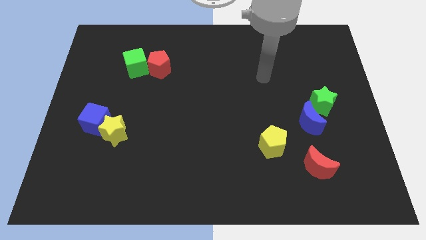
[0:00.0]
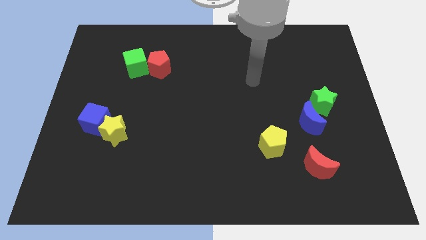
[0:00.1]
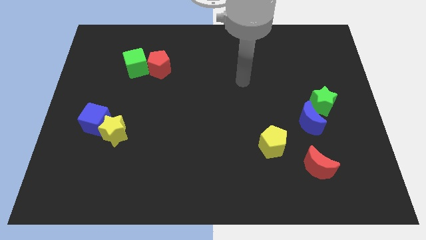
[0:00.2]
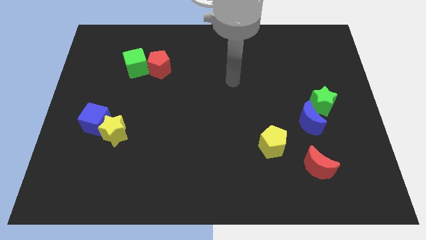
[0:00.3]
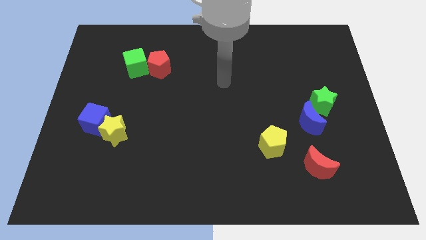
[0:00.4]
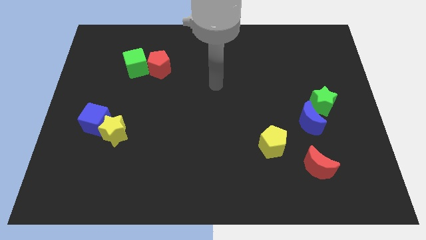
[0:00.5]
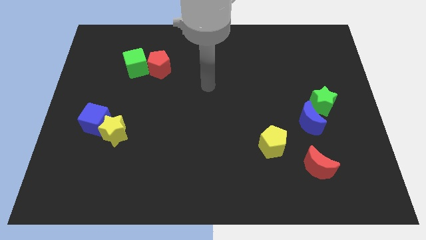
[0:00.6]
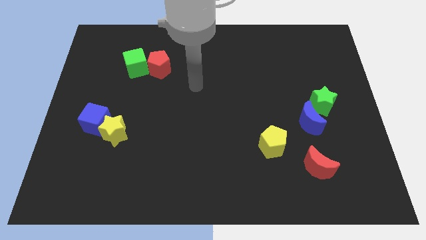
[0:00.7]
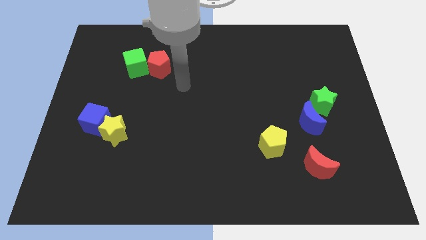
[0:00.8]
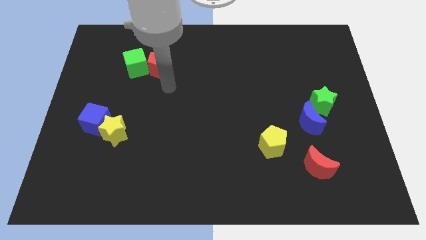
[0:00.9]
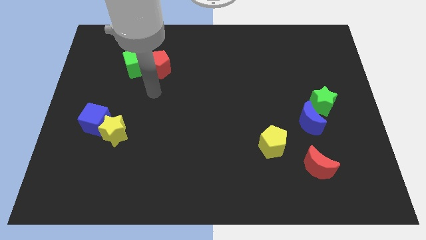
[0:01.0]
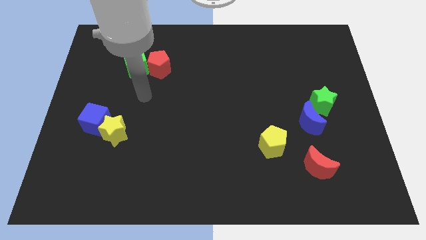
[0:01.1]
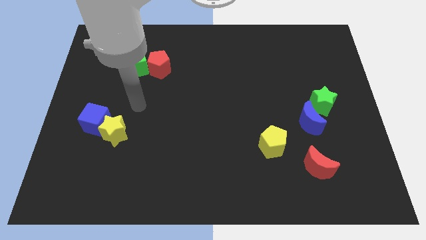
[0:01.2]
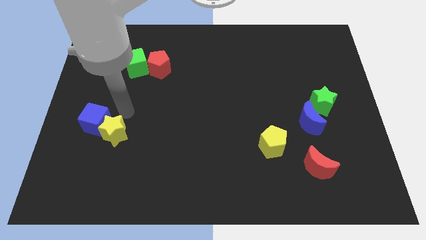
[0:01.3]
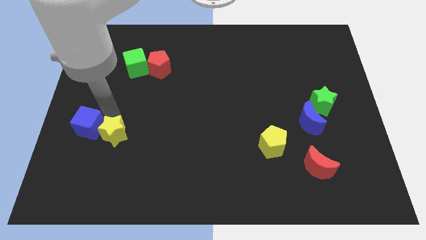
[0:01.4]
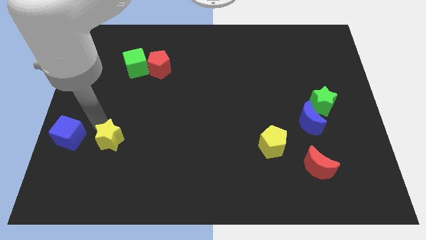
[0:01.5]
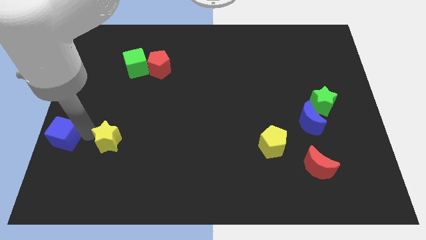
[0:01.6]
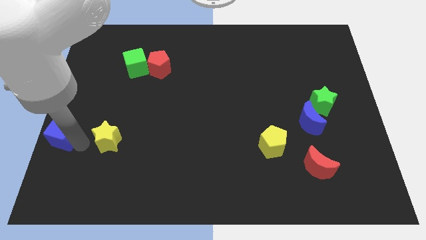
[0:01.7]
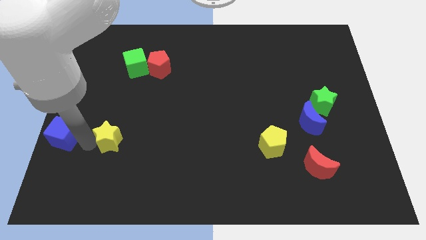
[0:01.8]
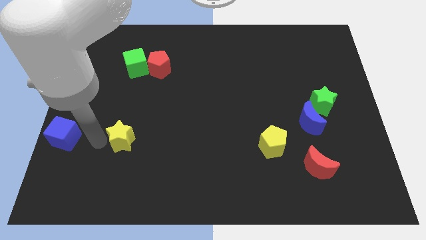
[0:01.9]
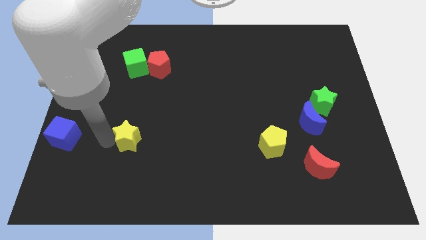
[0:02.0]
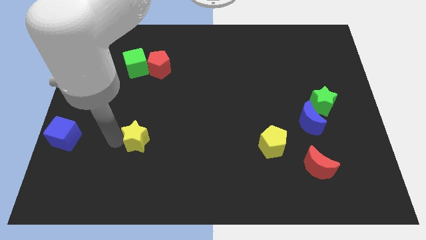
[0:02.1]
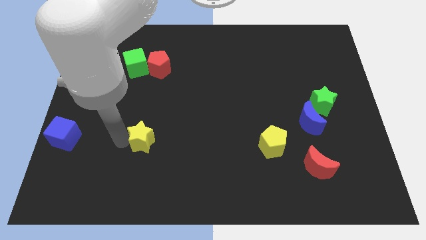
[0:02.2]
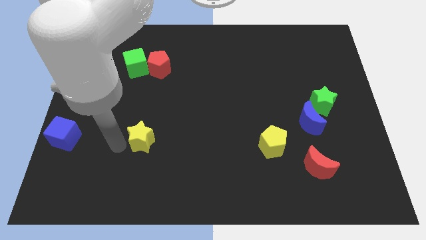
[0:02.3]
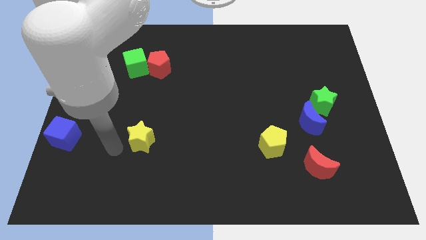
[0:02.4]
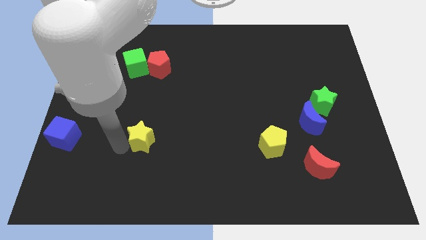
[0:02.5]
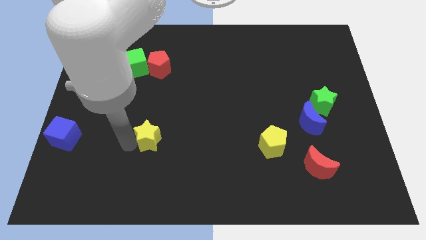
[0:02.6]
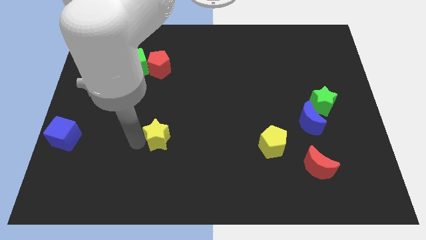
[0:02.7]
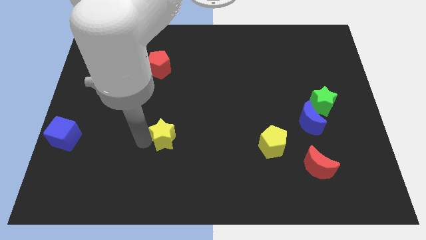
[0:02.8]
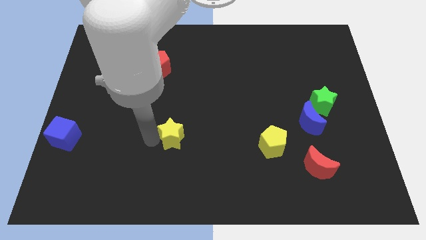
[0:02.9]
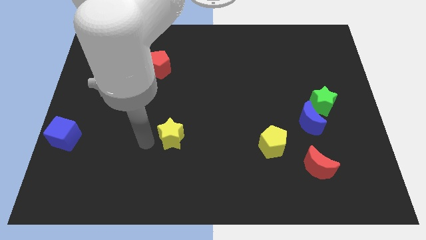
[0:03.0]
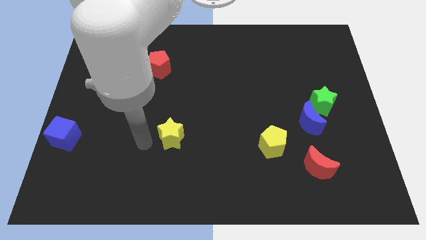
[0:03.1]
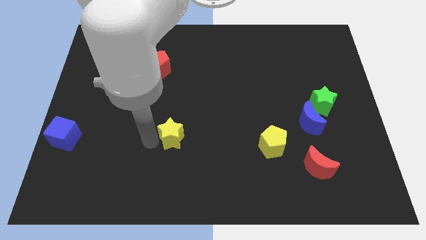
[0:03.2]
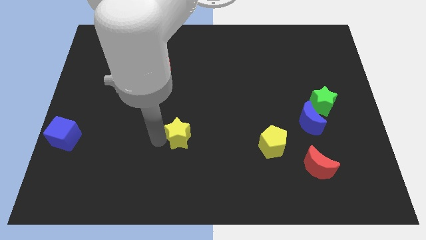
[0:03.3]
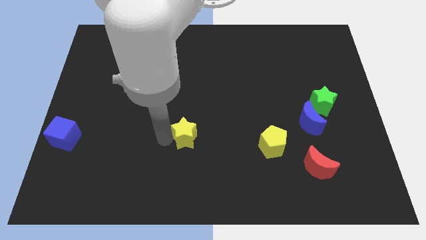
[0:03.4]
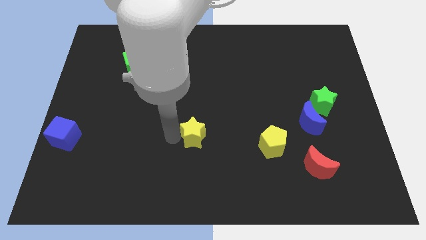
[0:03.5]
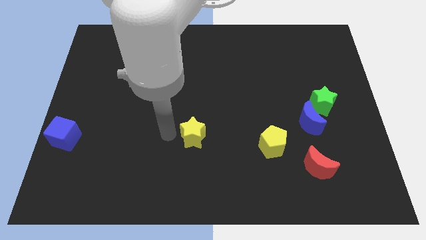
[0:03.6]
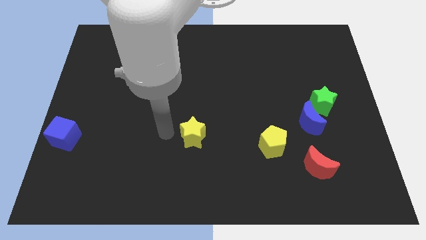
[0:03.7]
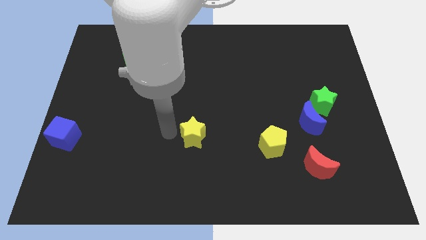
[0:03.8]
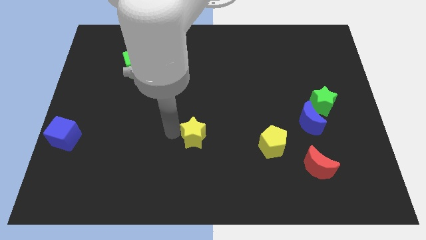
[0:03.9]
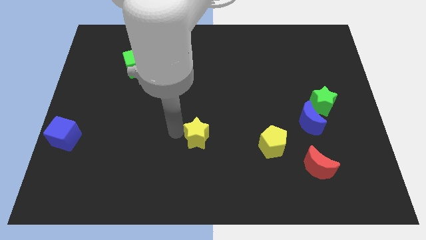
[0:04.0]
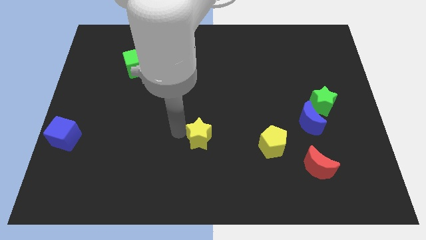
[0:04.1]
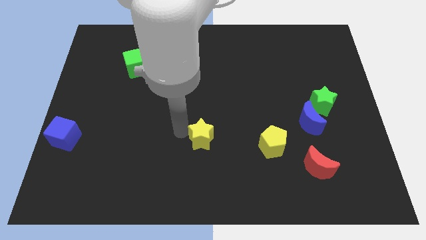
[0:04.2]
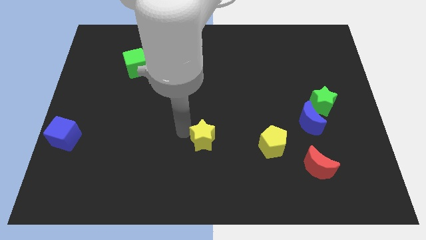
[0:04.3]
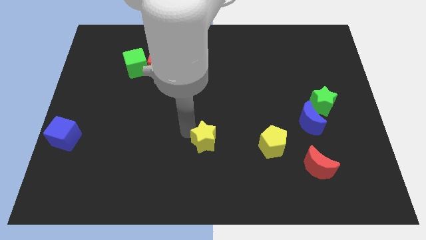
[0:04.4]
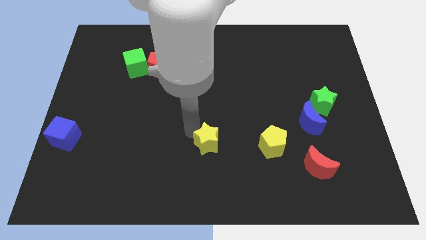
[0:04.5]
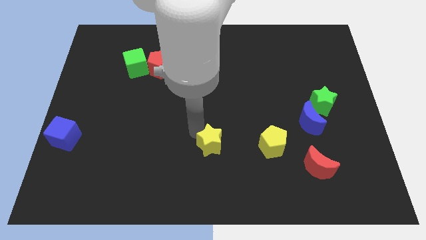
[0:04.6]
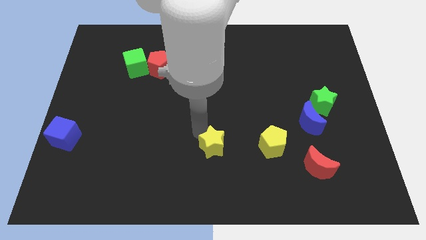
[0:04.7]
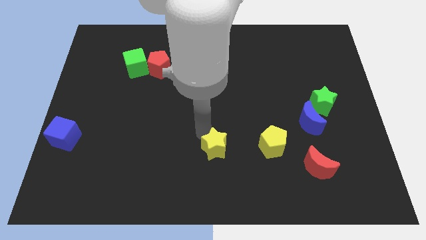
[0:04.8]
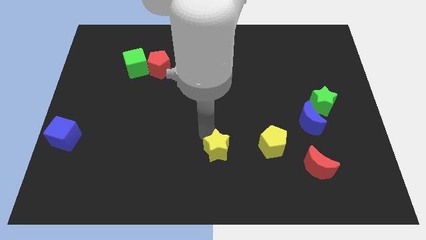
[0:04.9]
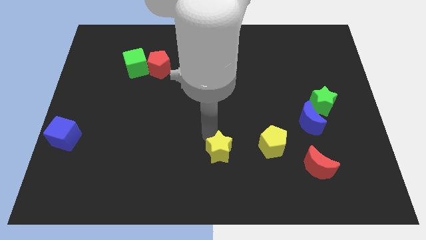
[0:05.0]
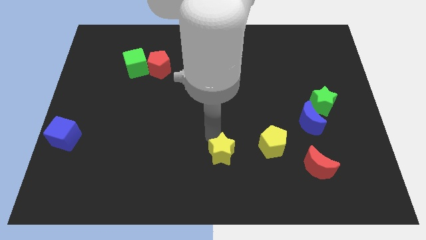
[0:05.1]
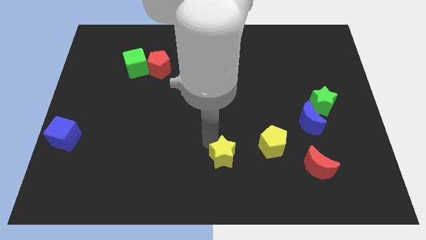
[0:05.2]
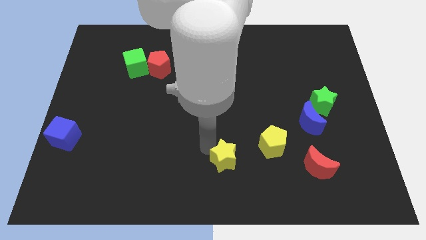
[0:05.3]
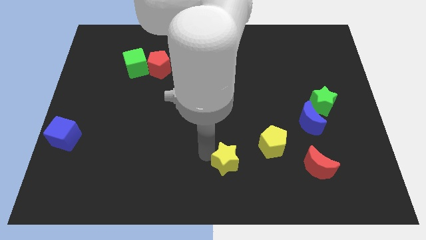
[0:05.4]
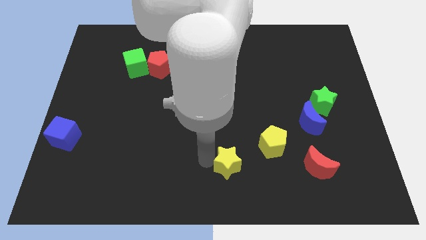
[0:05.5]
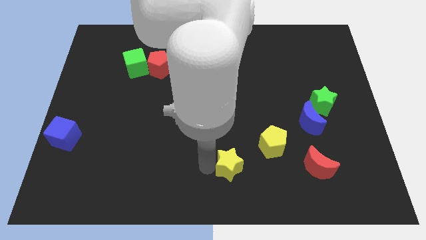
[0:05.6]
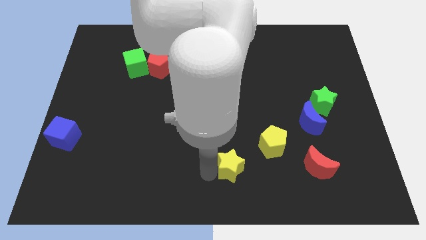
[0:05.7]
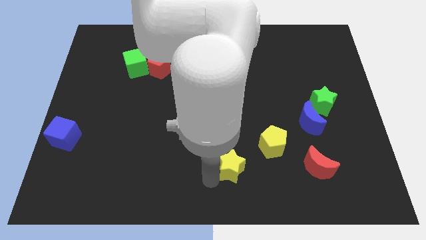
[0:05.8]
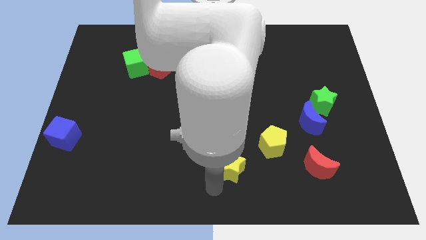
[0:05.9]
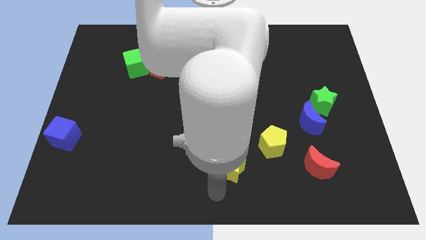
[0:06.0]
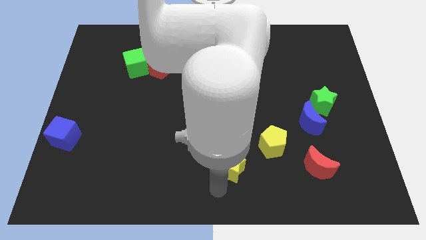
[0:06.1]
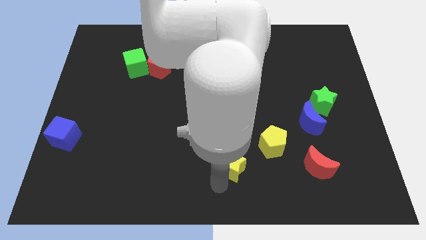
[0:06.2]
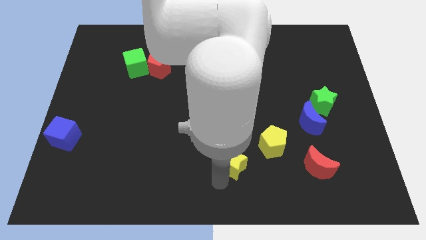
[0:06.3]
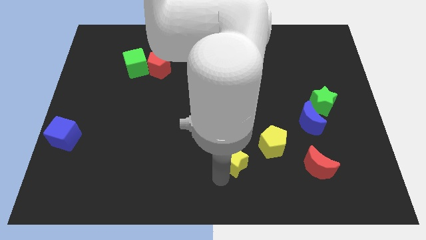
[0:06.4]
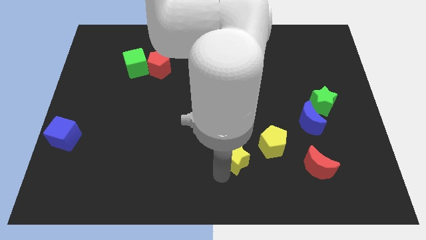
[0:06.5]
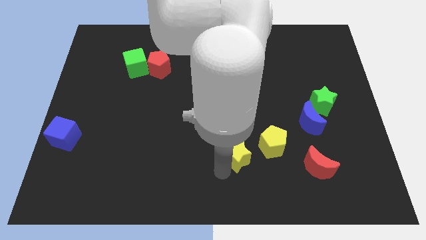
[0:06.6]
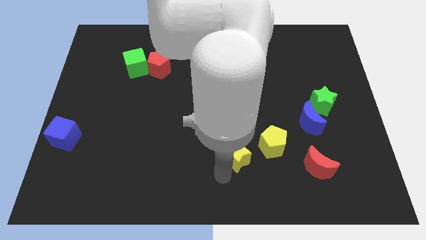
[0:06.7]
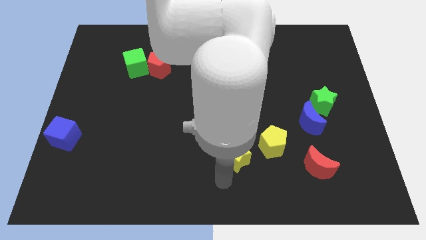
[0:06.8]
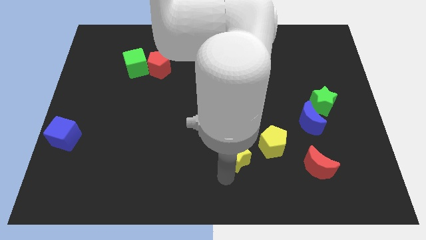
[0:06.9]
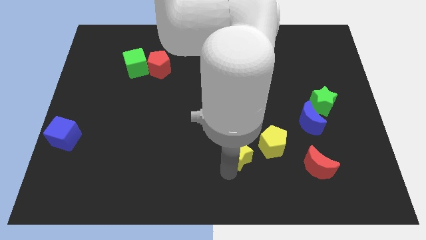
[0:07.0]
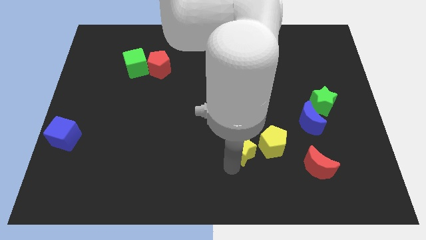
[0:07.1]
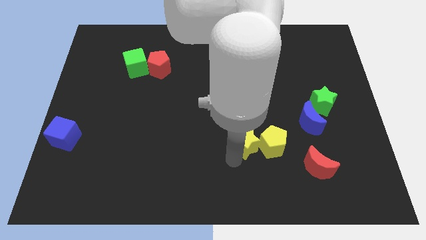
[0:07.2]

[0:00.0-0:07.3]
push the yellow star next to the yellow pentagon
